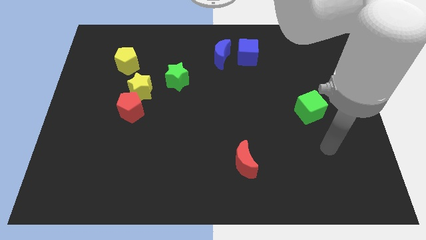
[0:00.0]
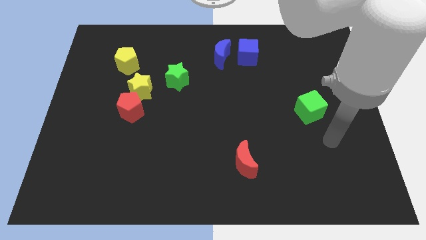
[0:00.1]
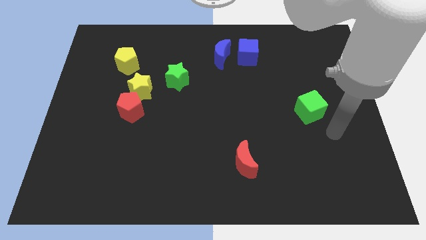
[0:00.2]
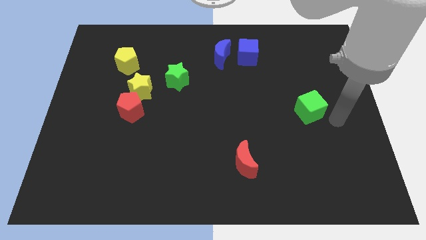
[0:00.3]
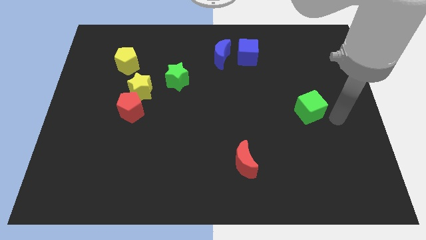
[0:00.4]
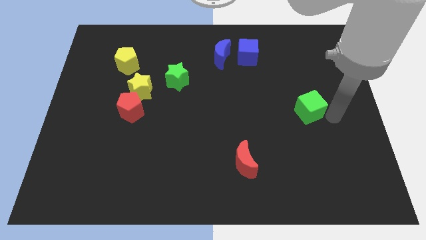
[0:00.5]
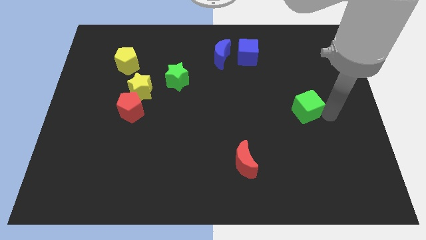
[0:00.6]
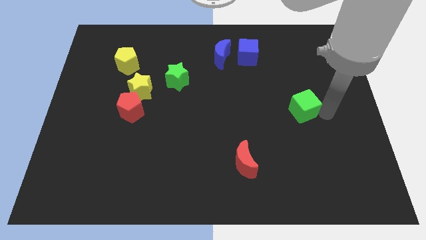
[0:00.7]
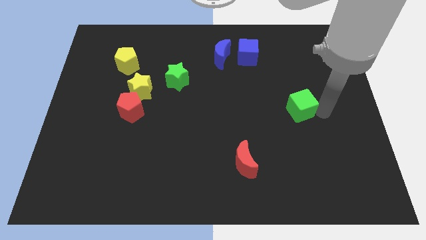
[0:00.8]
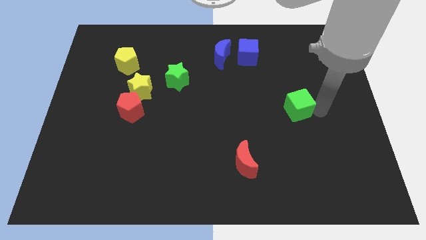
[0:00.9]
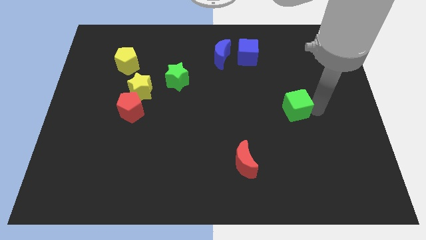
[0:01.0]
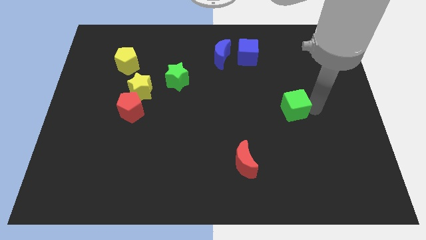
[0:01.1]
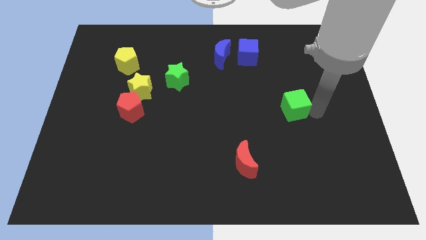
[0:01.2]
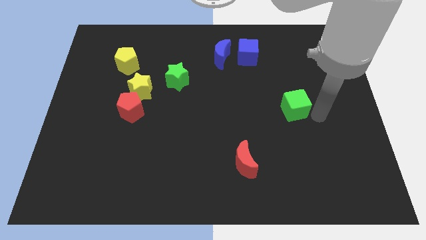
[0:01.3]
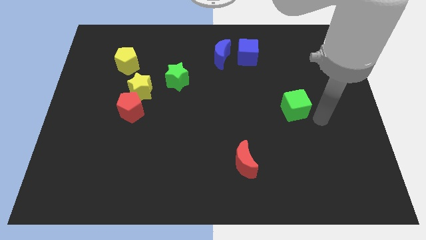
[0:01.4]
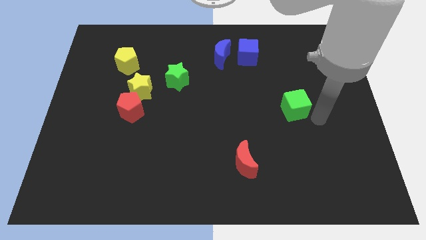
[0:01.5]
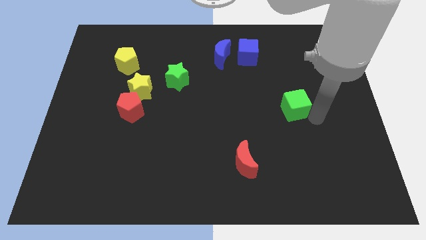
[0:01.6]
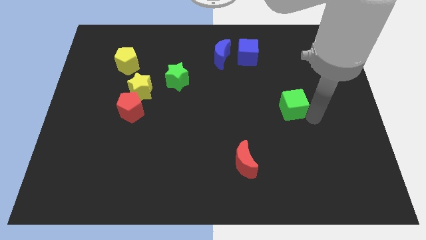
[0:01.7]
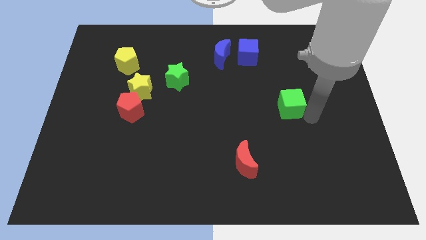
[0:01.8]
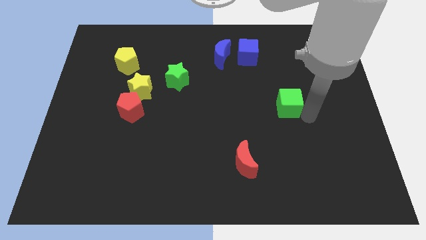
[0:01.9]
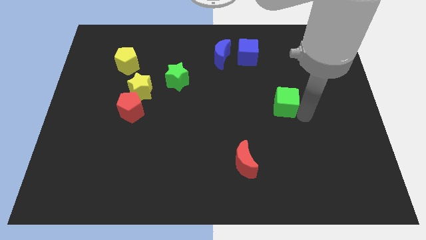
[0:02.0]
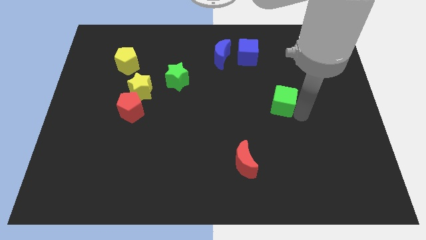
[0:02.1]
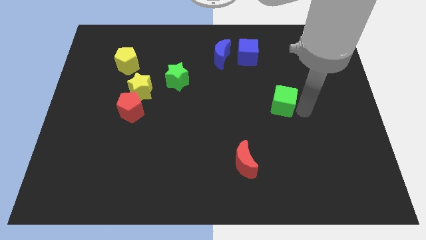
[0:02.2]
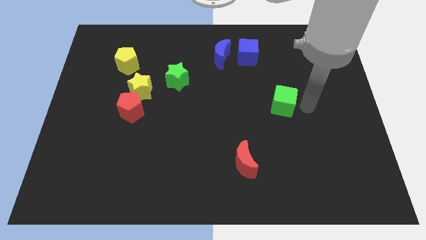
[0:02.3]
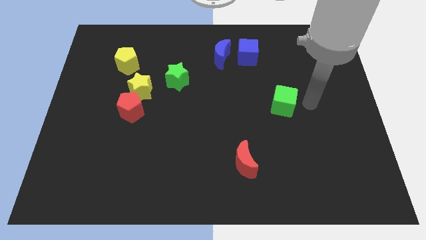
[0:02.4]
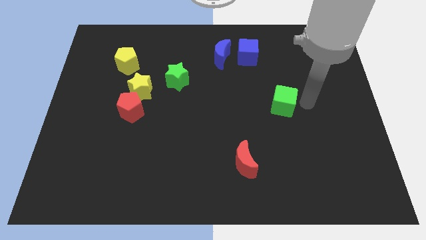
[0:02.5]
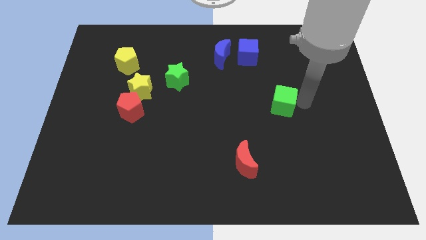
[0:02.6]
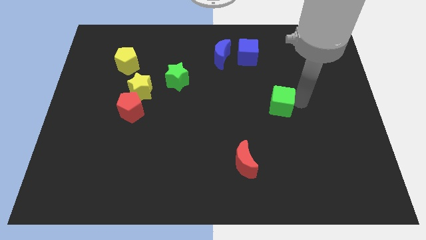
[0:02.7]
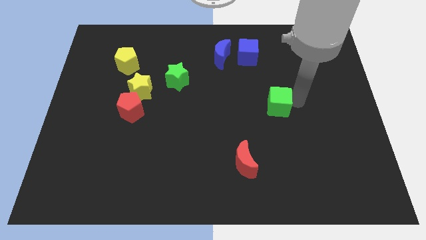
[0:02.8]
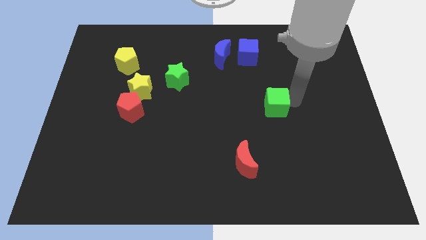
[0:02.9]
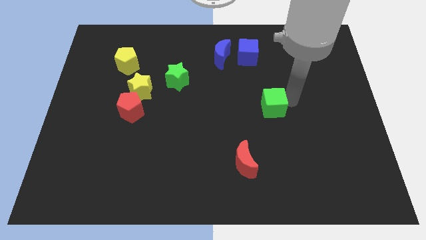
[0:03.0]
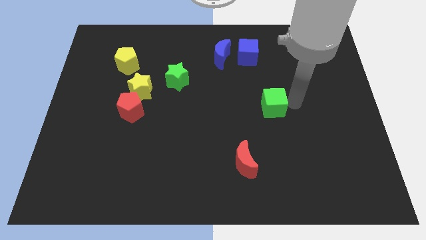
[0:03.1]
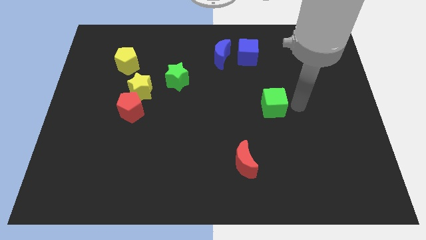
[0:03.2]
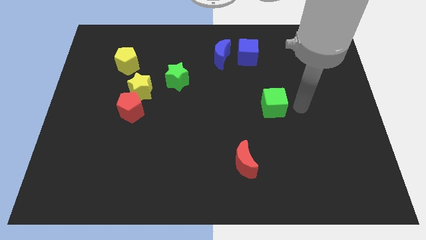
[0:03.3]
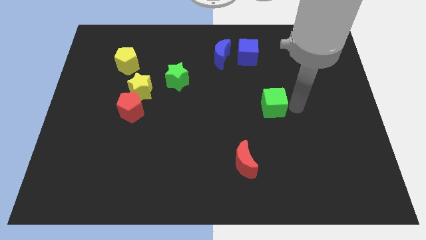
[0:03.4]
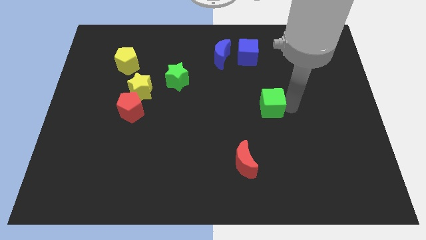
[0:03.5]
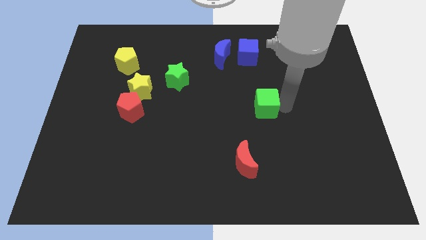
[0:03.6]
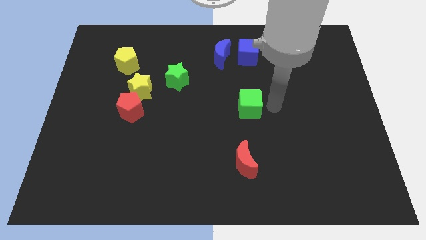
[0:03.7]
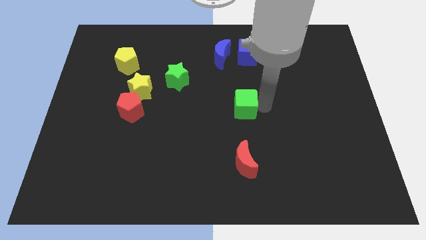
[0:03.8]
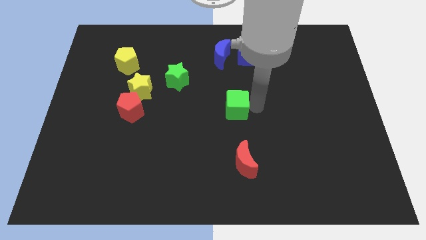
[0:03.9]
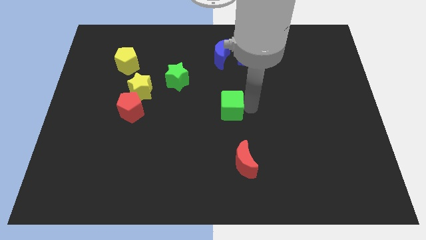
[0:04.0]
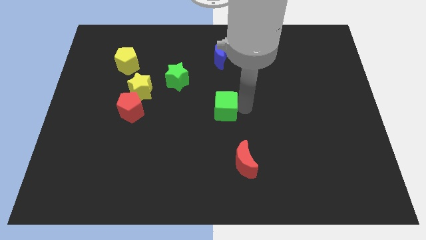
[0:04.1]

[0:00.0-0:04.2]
move the green cube to the left

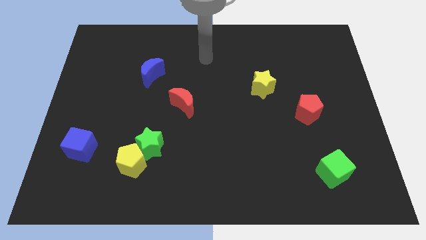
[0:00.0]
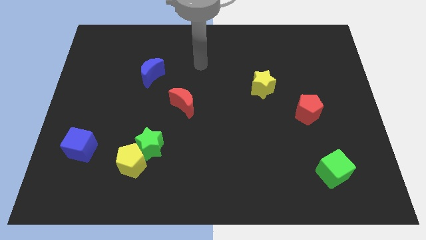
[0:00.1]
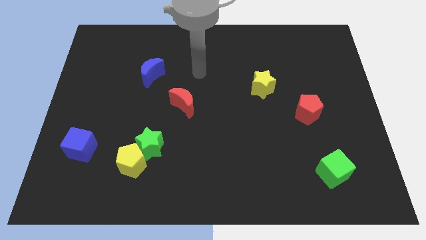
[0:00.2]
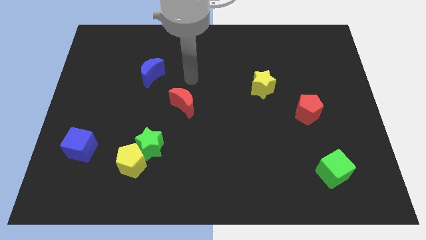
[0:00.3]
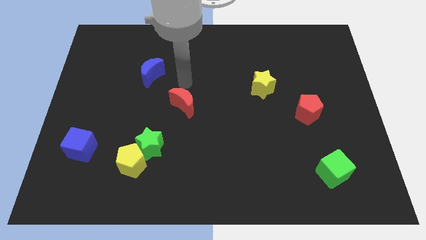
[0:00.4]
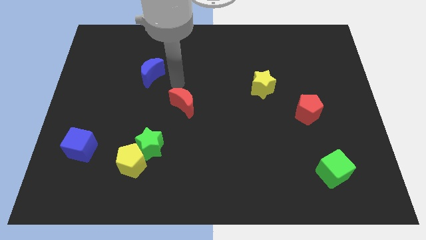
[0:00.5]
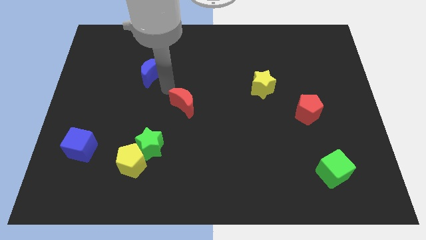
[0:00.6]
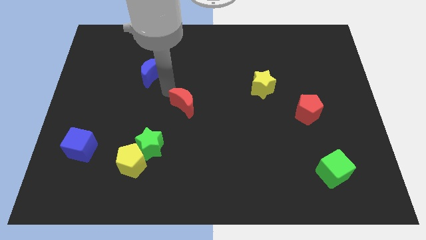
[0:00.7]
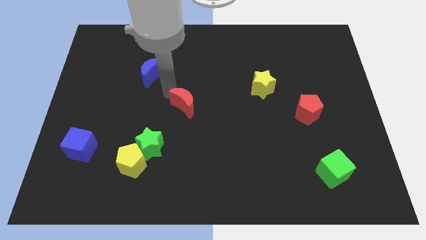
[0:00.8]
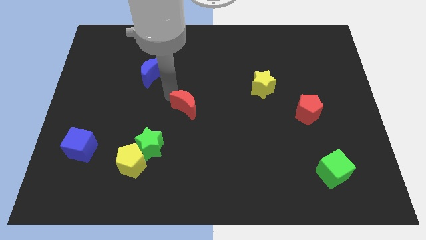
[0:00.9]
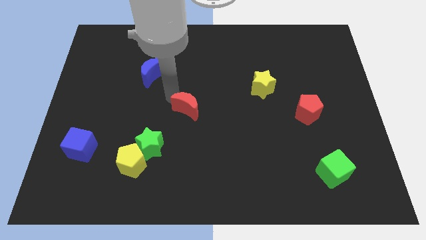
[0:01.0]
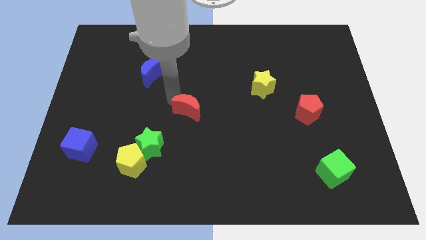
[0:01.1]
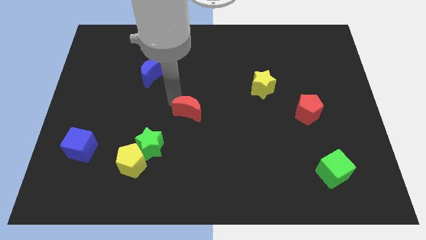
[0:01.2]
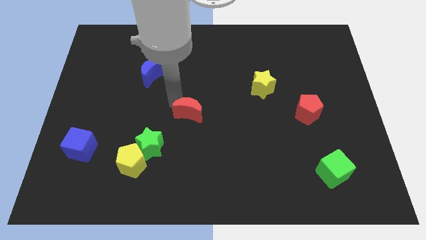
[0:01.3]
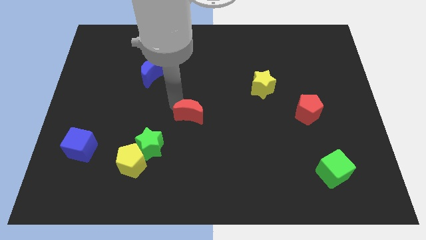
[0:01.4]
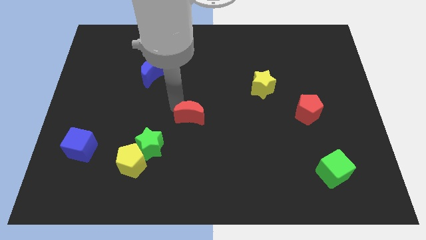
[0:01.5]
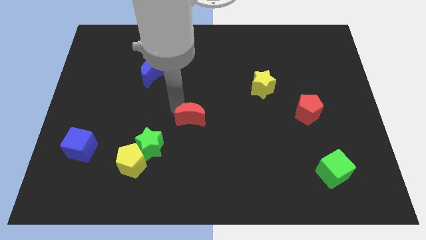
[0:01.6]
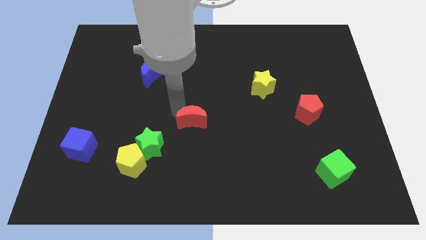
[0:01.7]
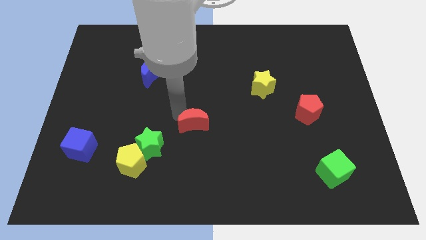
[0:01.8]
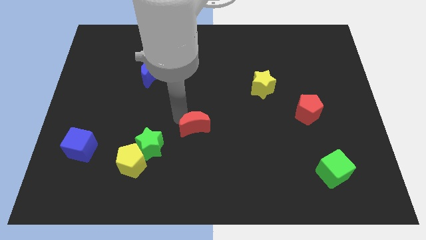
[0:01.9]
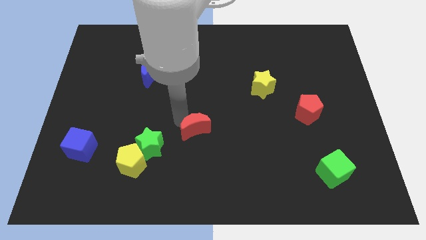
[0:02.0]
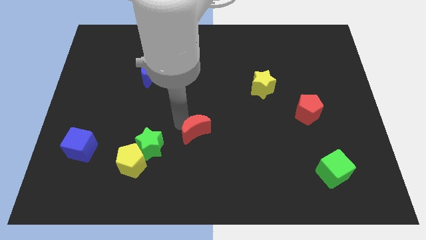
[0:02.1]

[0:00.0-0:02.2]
push the red moon downwards and then to the right slightly

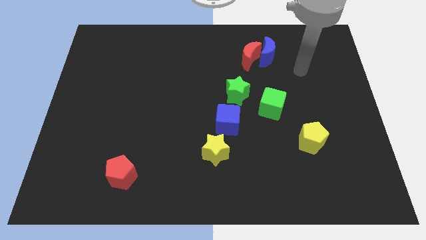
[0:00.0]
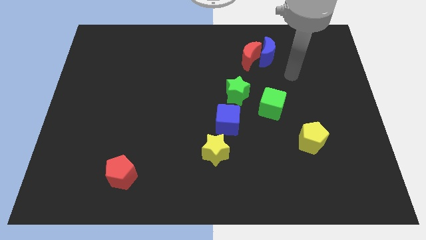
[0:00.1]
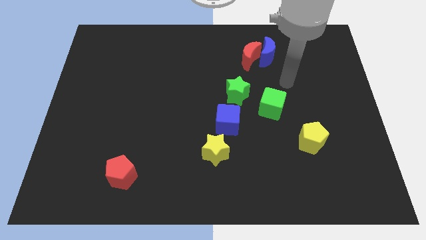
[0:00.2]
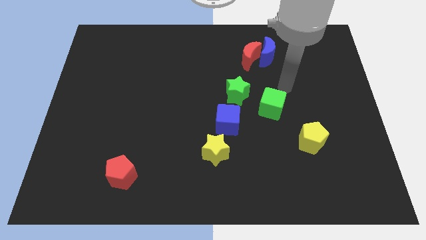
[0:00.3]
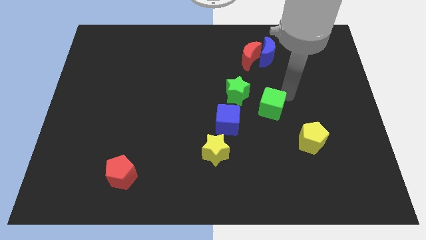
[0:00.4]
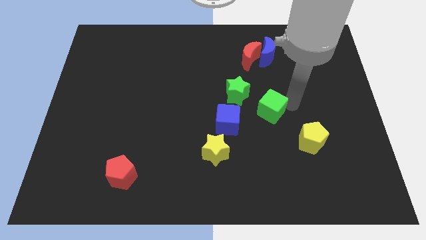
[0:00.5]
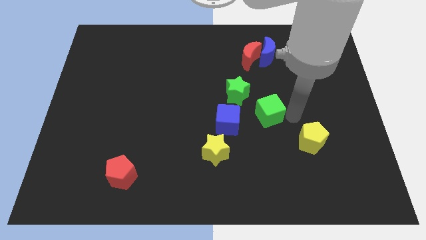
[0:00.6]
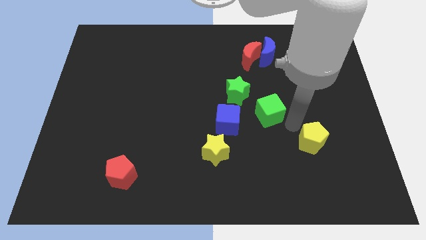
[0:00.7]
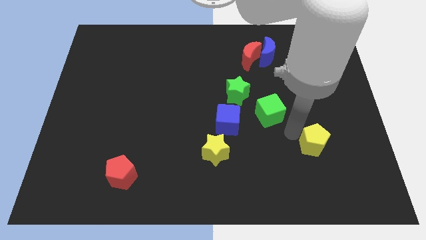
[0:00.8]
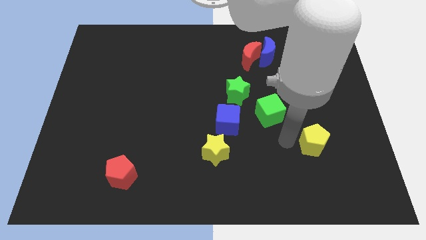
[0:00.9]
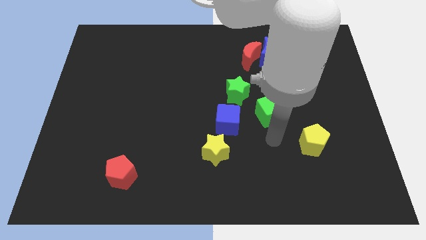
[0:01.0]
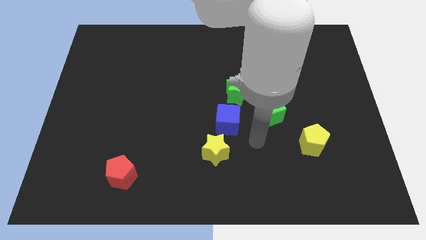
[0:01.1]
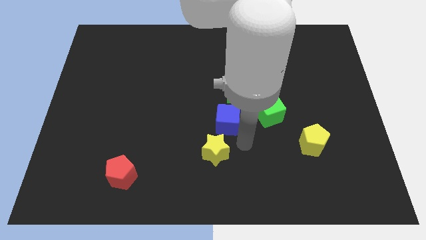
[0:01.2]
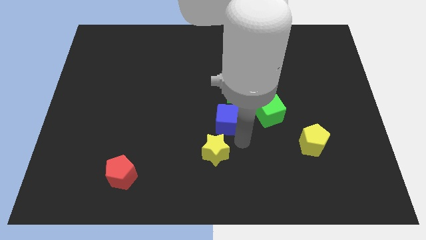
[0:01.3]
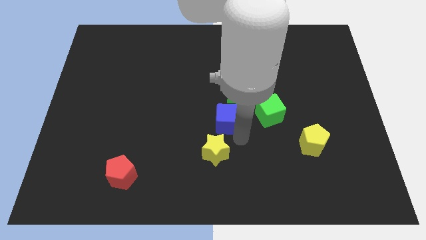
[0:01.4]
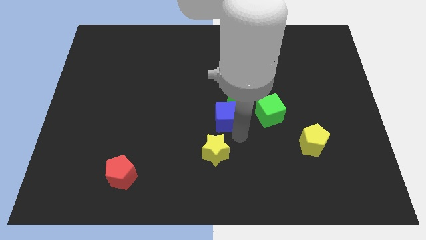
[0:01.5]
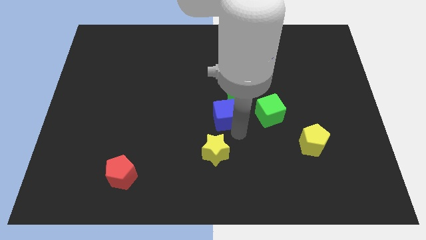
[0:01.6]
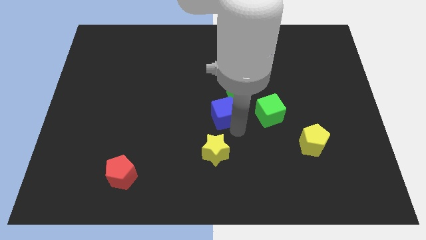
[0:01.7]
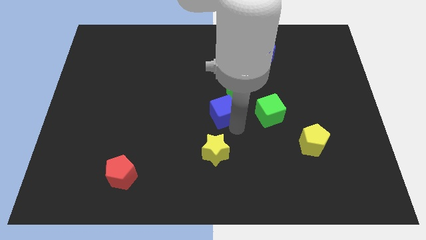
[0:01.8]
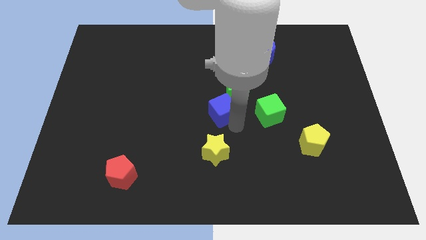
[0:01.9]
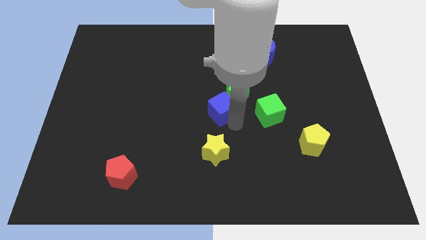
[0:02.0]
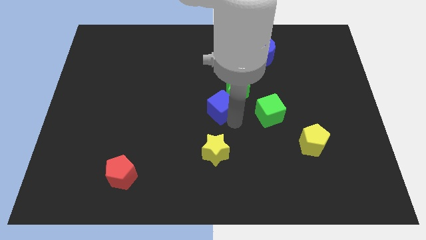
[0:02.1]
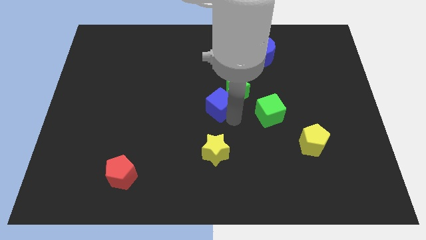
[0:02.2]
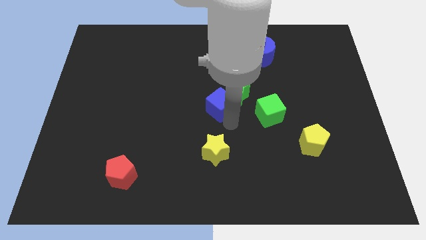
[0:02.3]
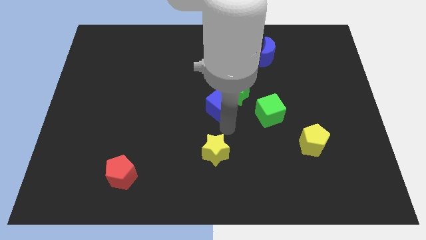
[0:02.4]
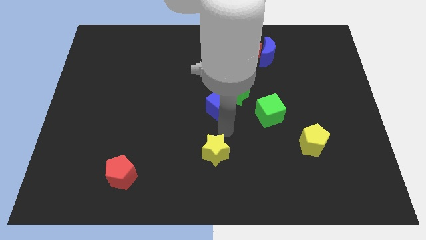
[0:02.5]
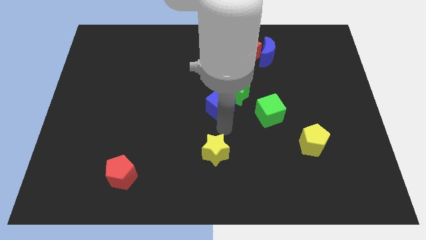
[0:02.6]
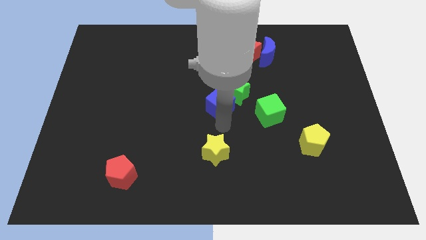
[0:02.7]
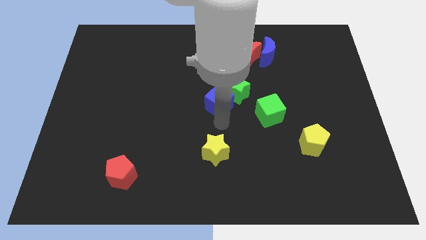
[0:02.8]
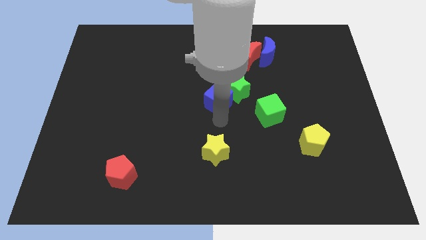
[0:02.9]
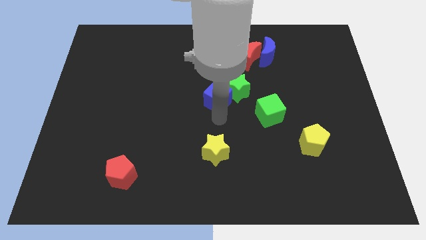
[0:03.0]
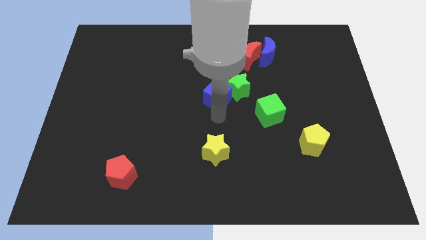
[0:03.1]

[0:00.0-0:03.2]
slightly push the blue cube upwards
